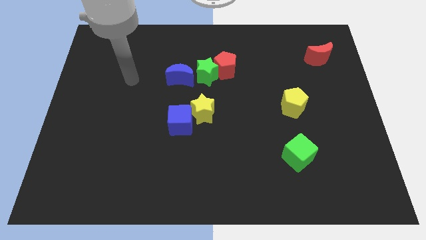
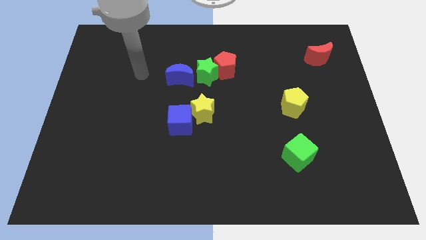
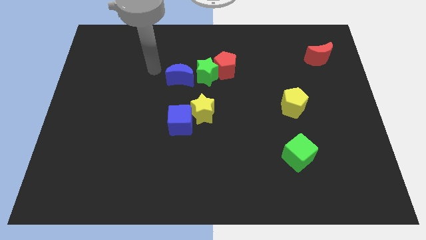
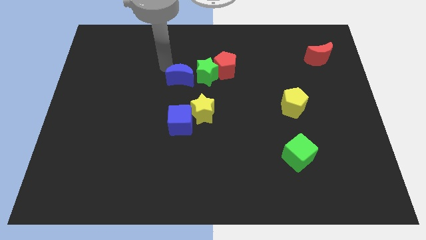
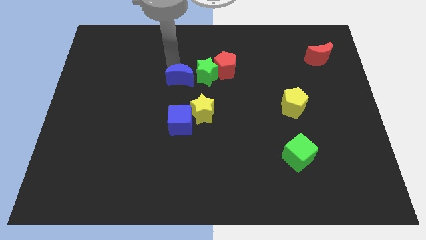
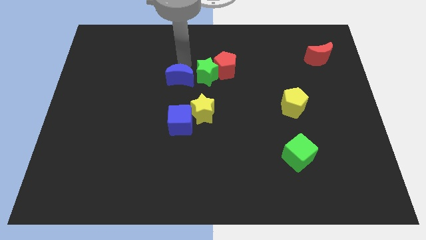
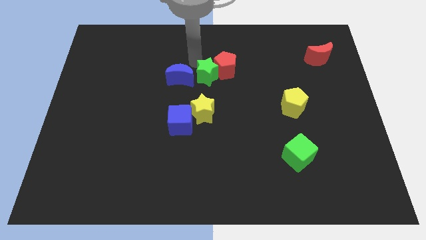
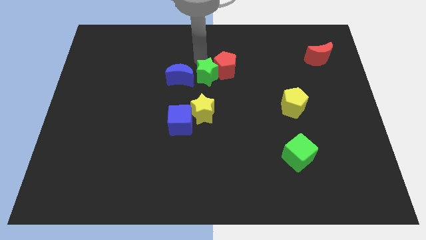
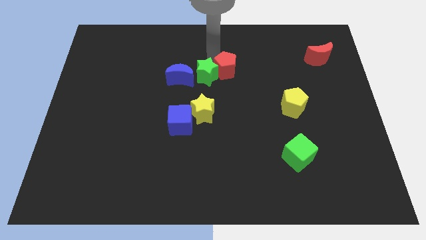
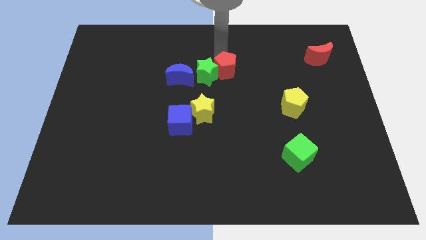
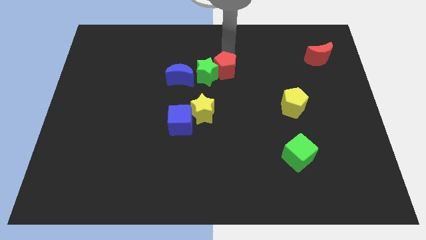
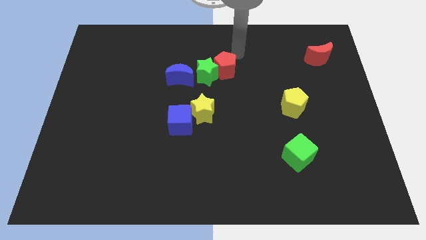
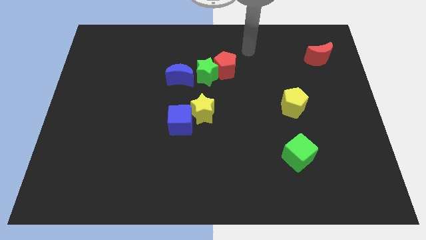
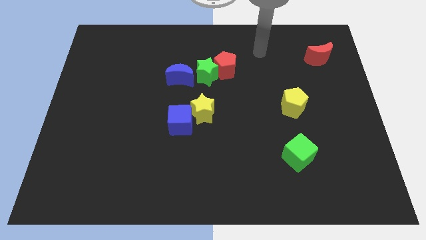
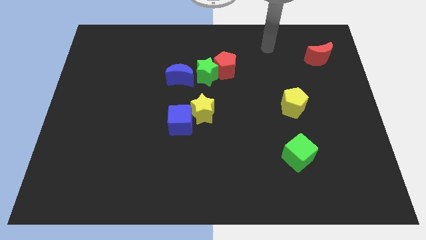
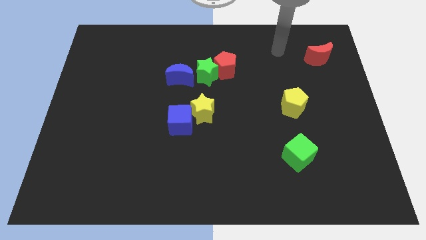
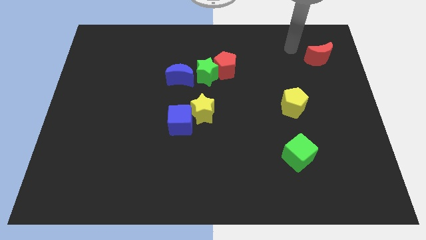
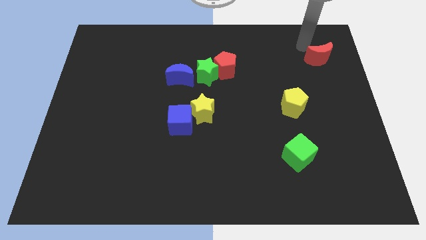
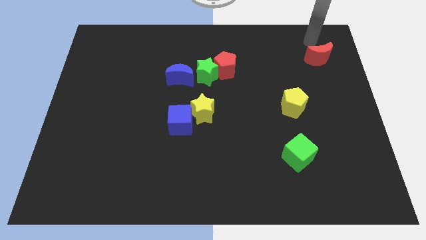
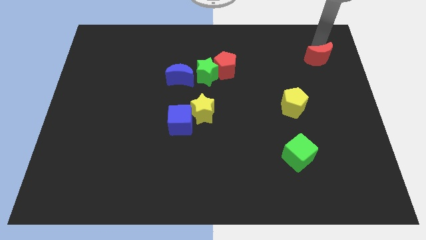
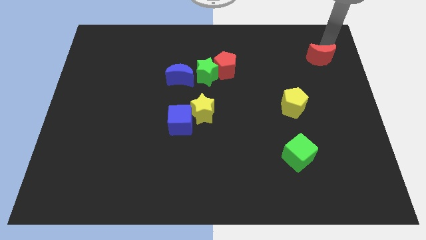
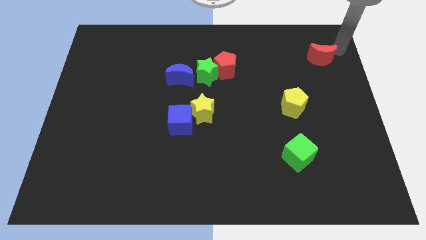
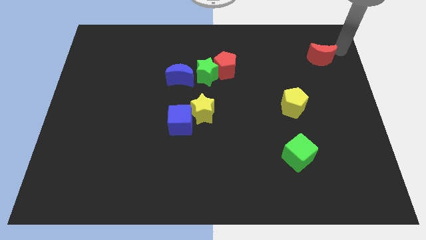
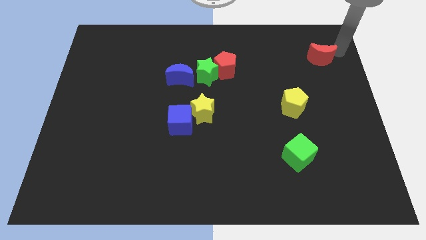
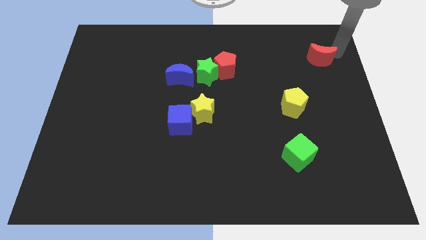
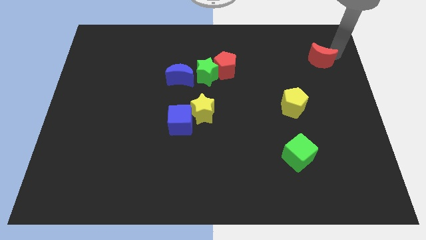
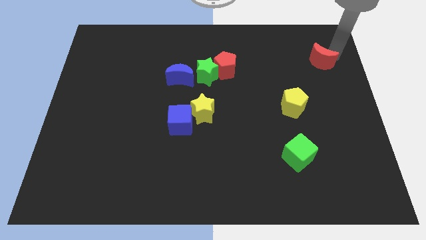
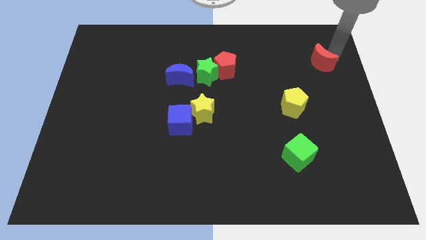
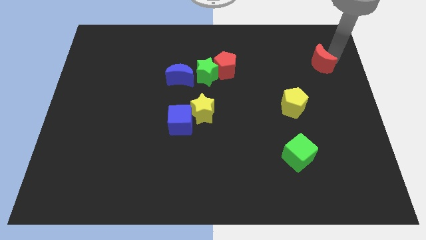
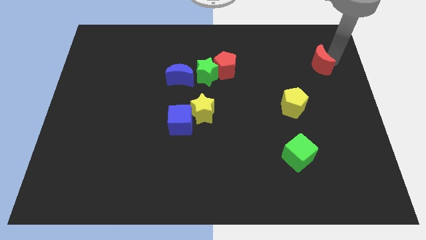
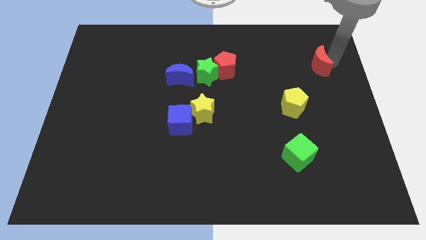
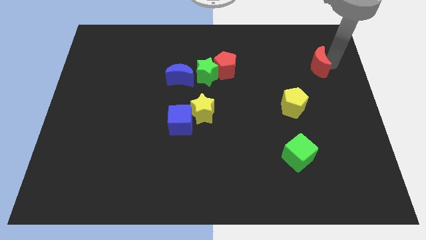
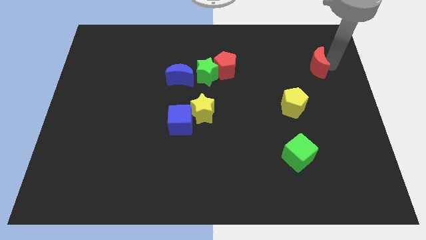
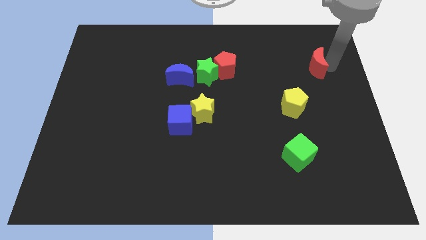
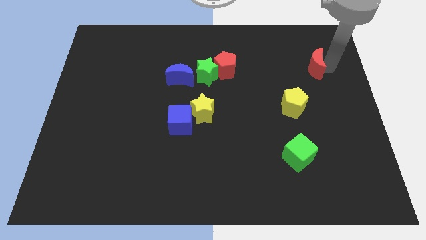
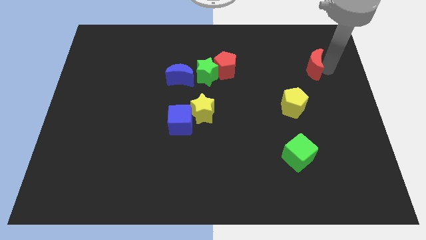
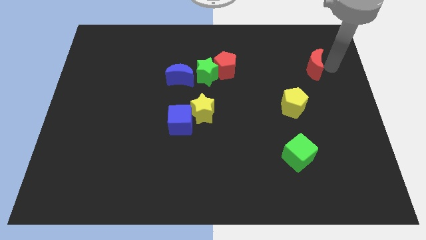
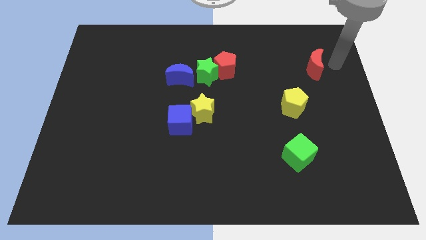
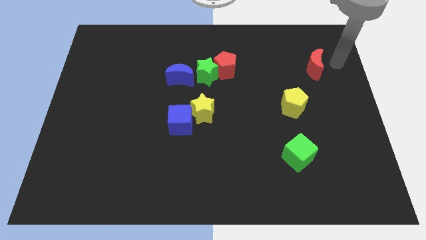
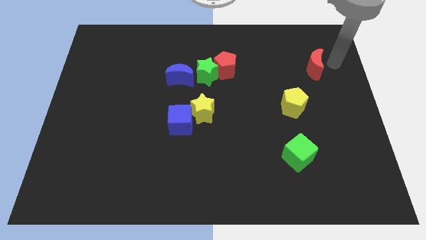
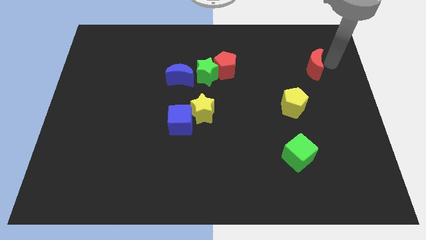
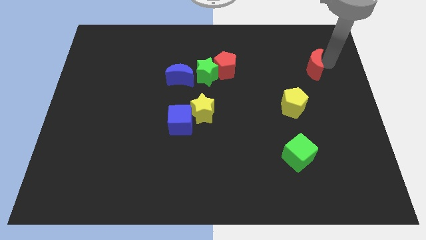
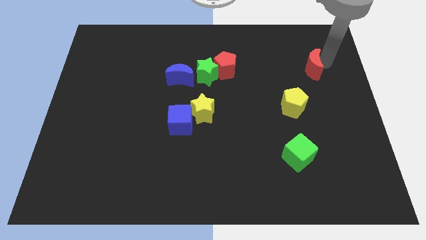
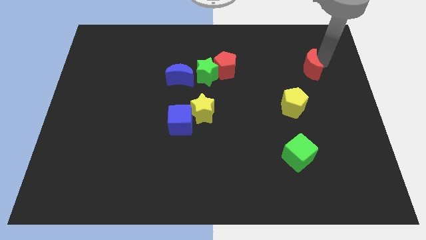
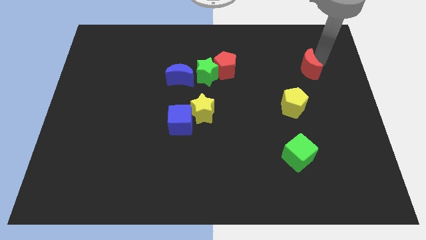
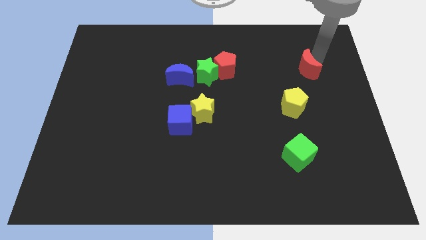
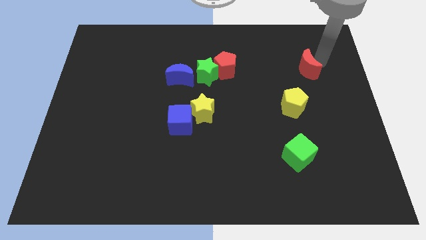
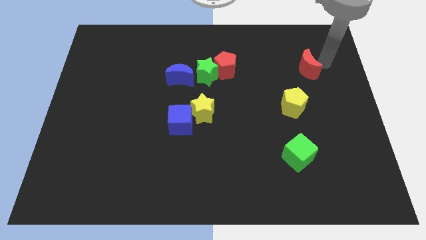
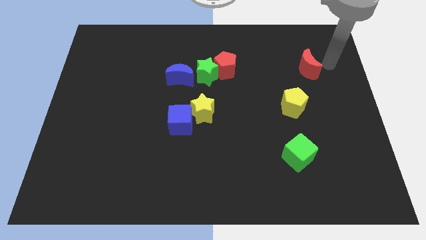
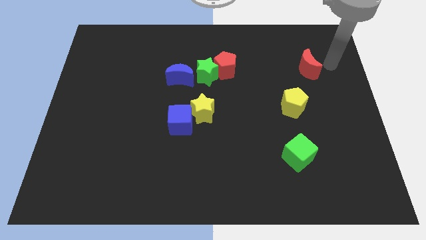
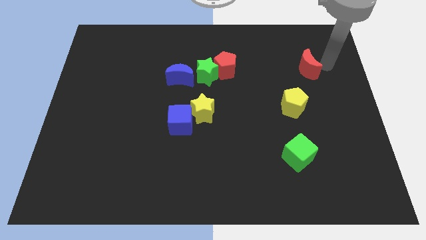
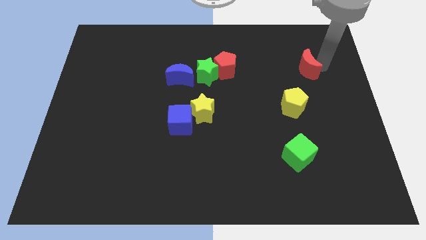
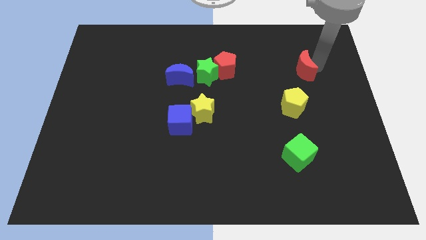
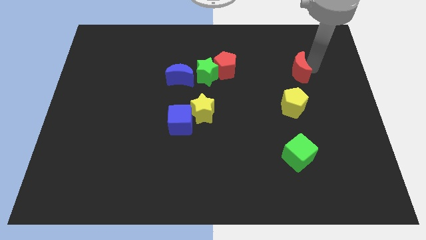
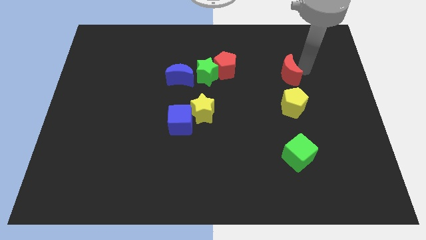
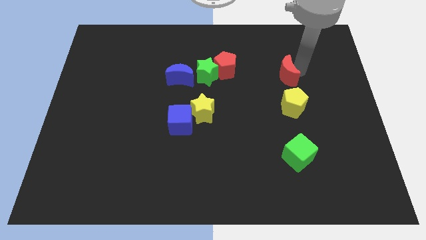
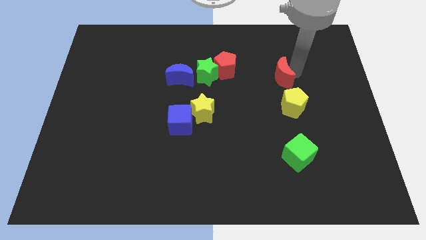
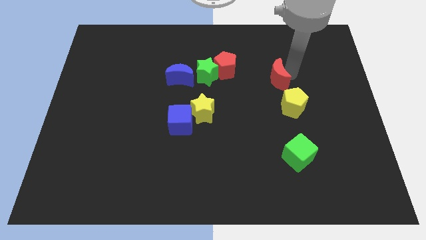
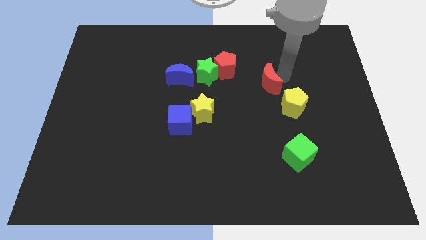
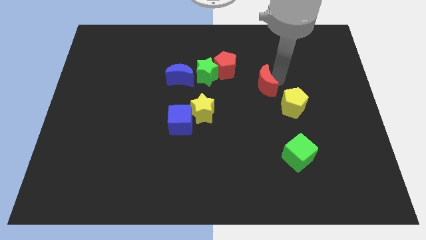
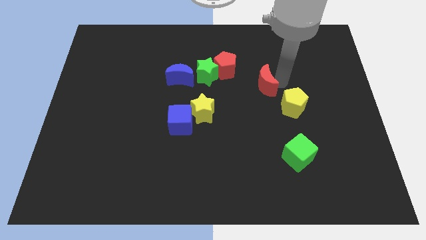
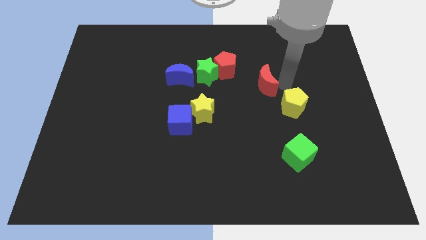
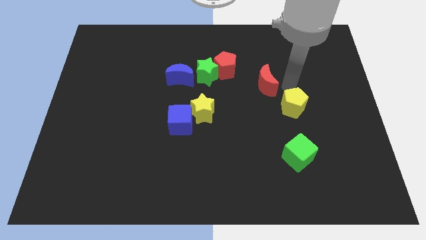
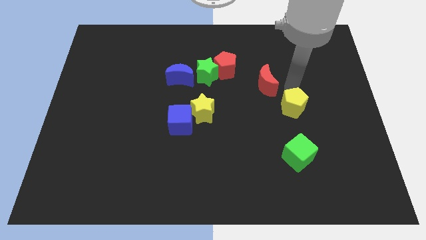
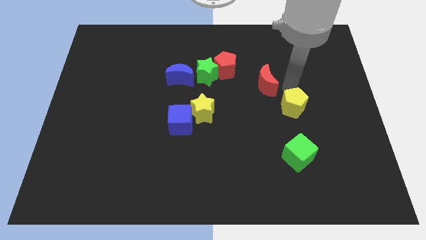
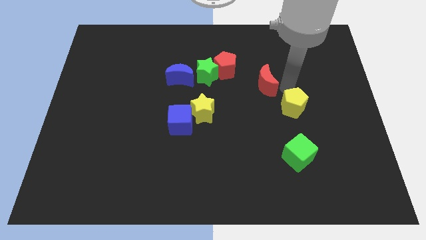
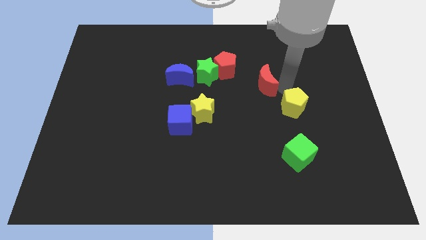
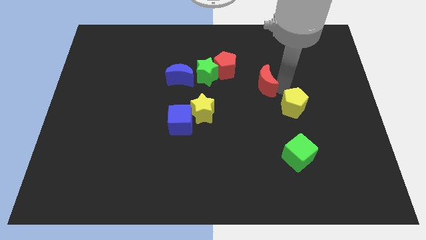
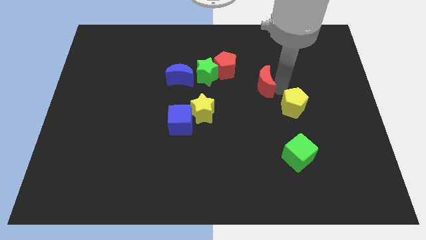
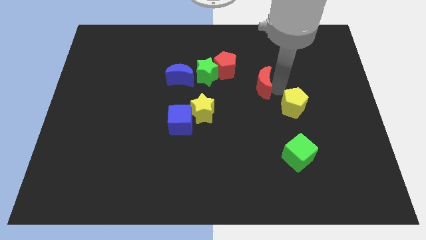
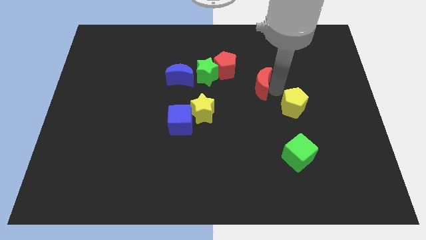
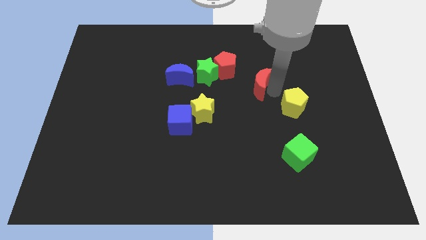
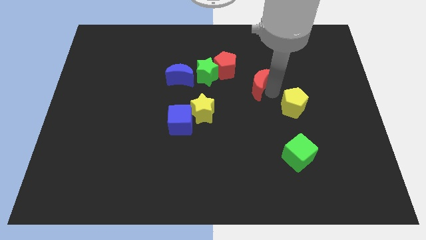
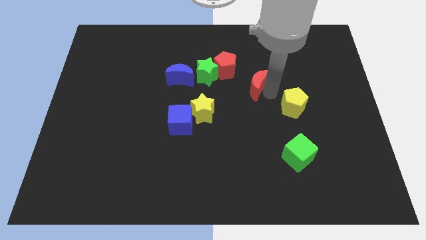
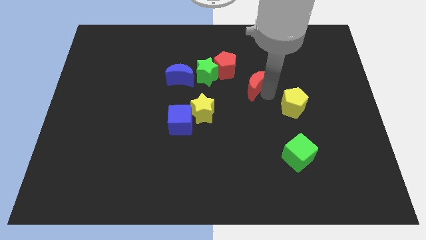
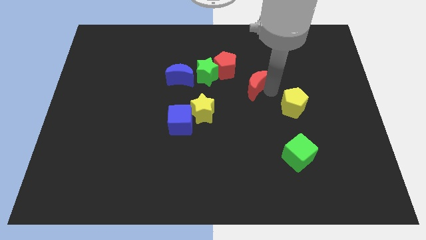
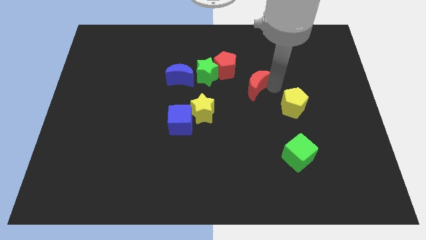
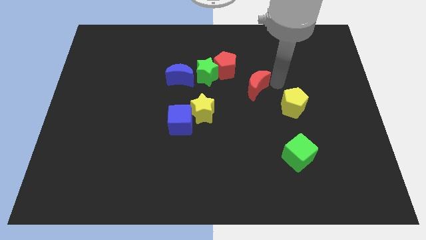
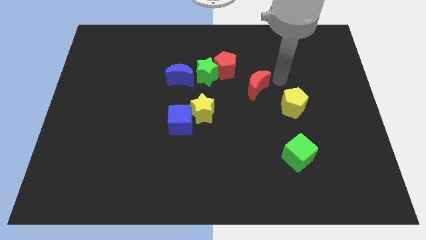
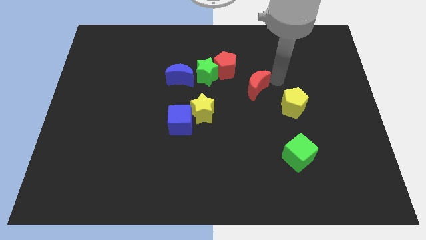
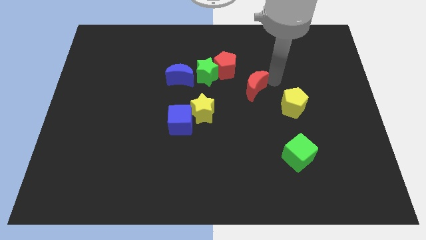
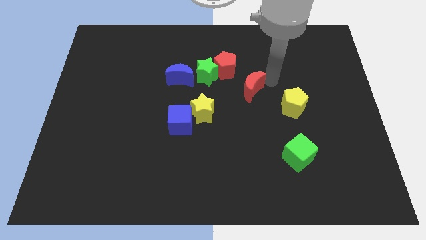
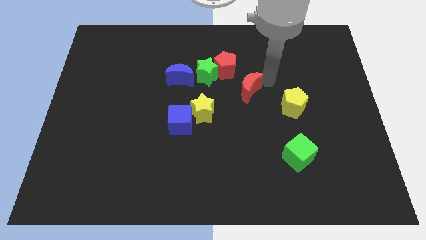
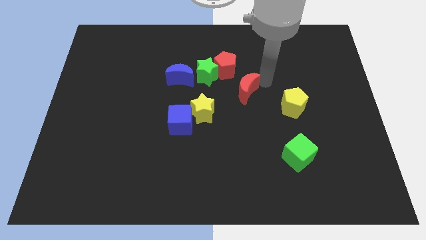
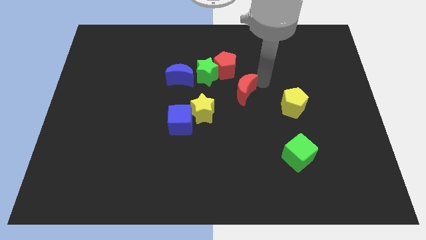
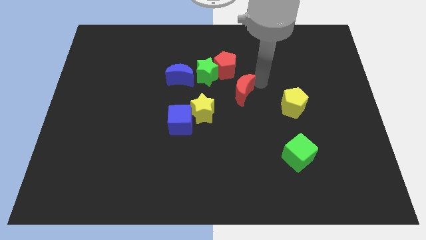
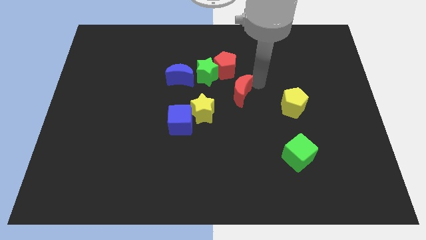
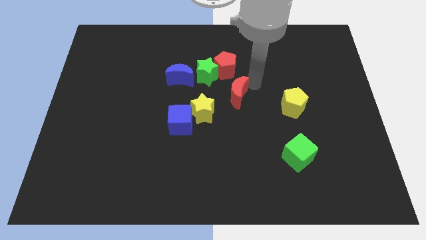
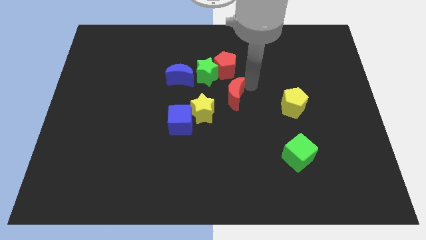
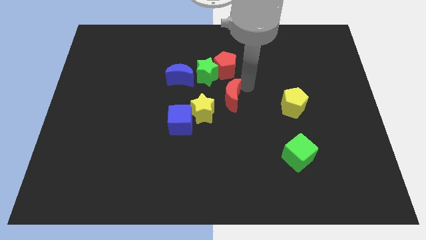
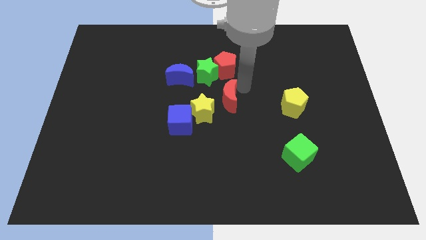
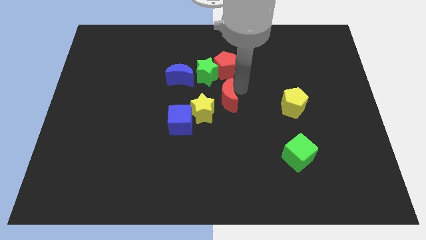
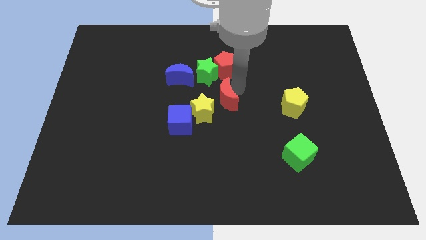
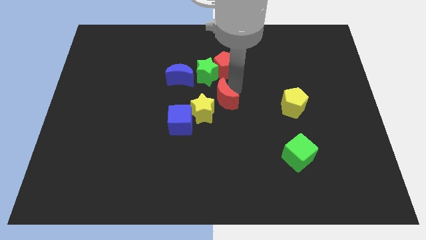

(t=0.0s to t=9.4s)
slide the red moon next to the yellow star
